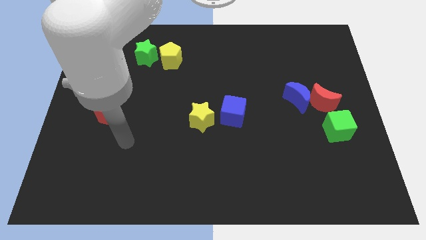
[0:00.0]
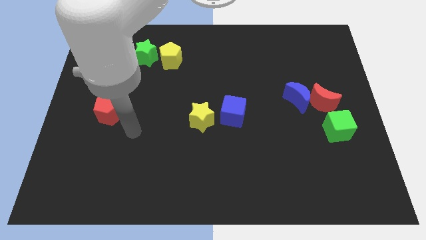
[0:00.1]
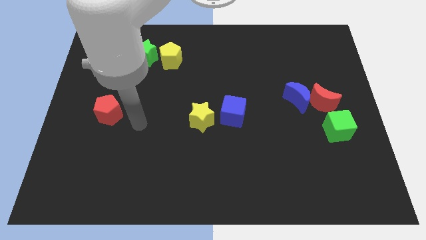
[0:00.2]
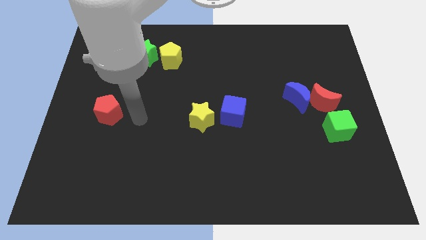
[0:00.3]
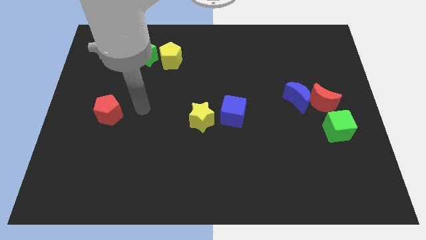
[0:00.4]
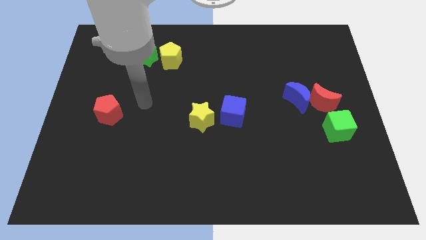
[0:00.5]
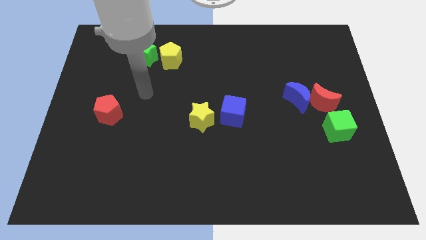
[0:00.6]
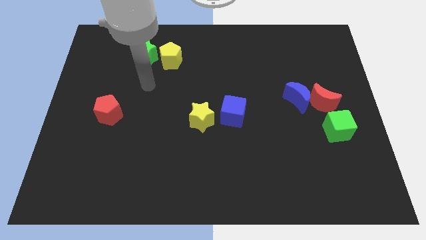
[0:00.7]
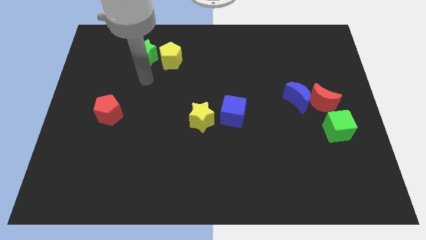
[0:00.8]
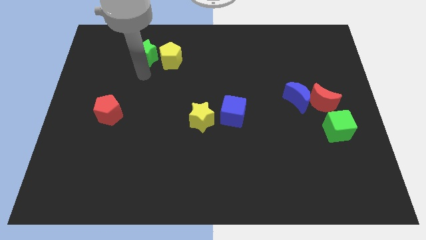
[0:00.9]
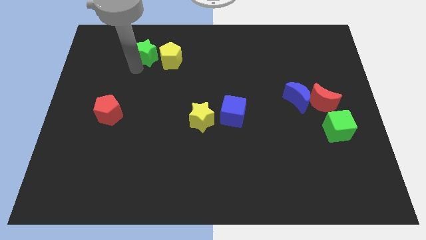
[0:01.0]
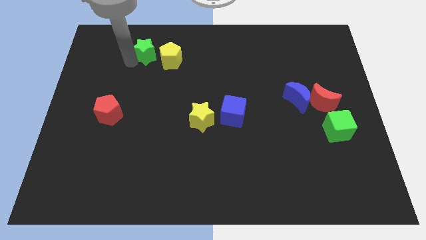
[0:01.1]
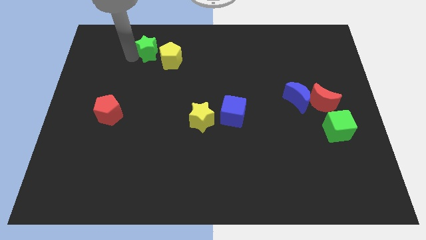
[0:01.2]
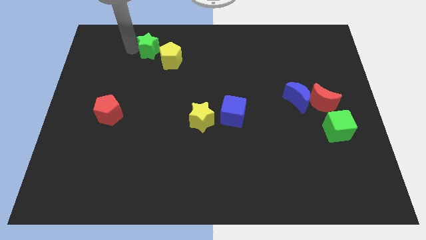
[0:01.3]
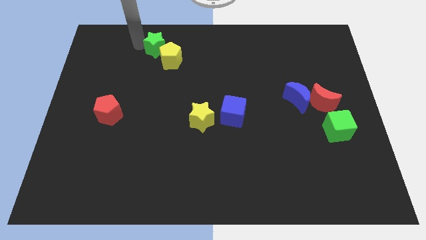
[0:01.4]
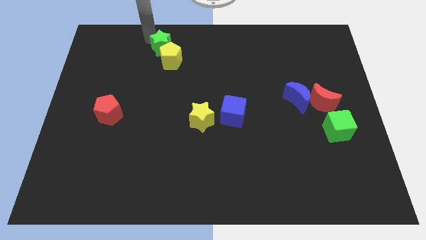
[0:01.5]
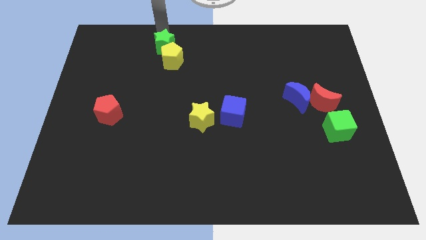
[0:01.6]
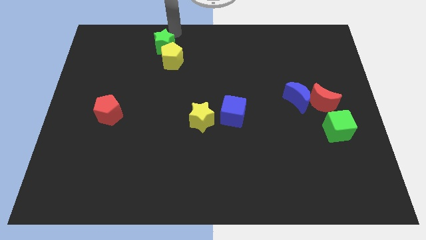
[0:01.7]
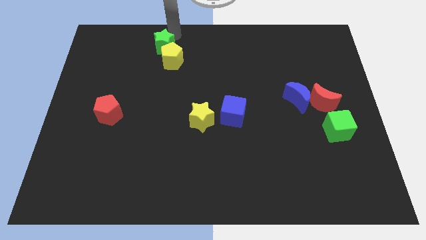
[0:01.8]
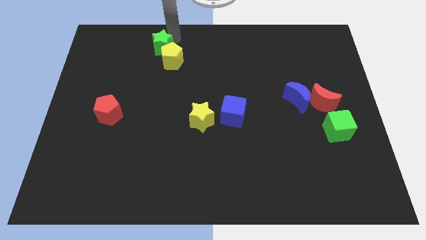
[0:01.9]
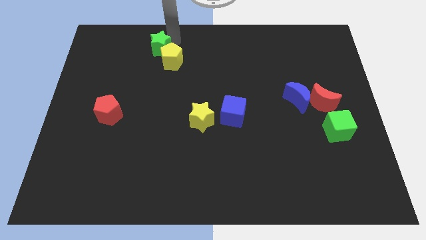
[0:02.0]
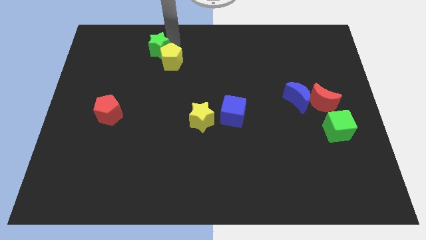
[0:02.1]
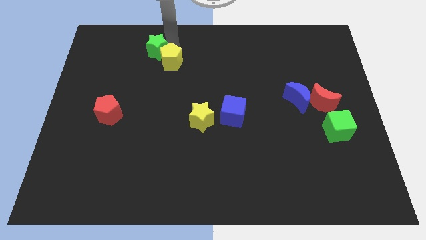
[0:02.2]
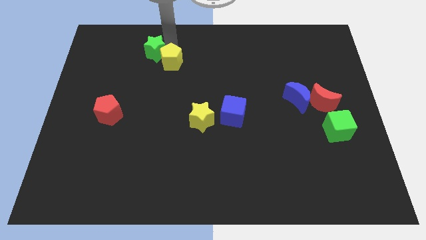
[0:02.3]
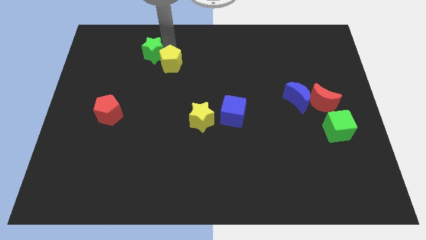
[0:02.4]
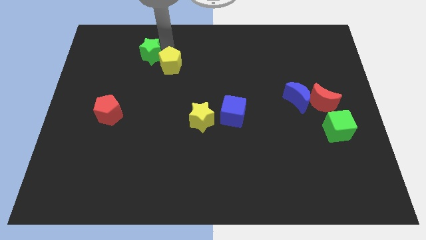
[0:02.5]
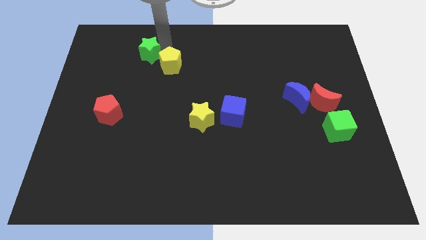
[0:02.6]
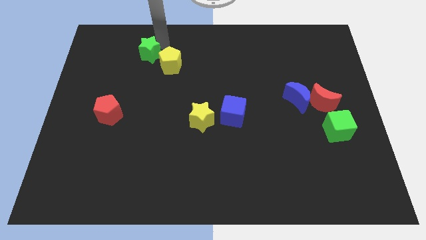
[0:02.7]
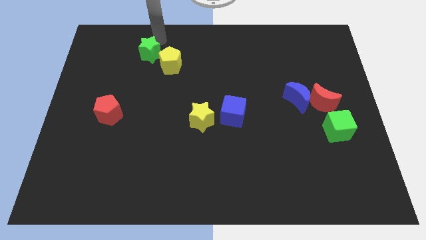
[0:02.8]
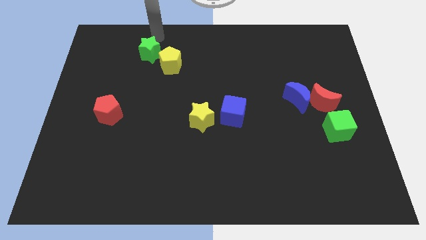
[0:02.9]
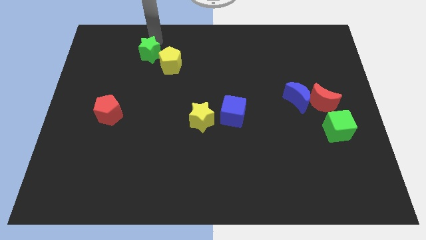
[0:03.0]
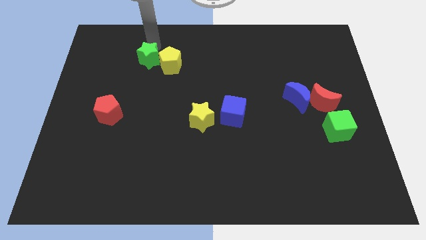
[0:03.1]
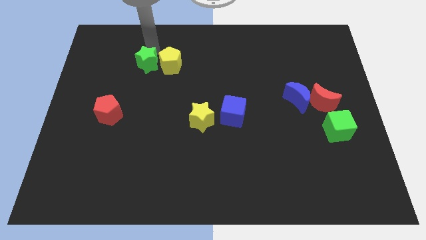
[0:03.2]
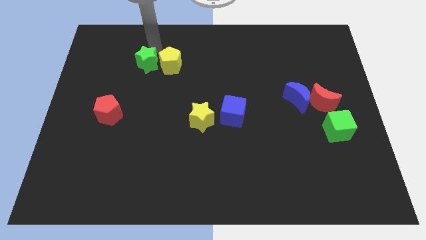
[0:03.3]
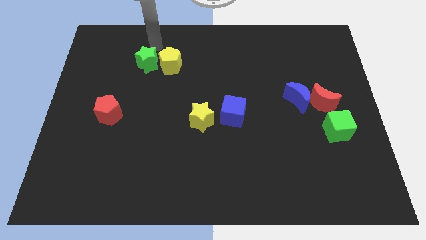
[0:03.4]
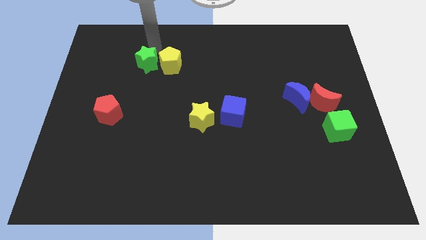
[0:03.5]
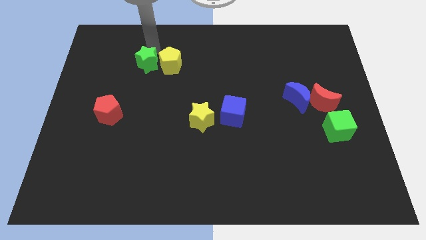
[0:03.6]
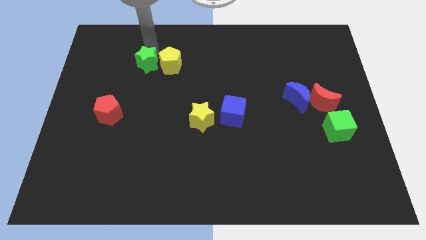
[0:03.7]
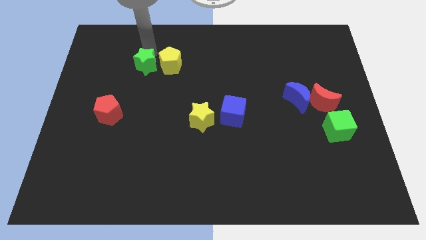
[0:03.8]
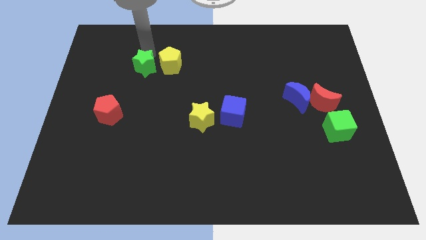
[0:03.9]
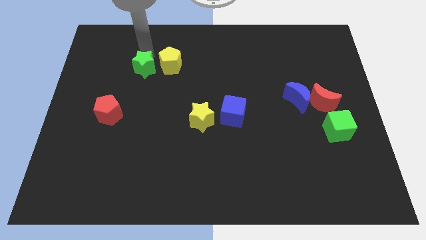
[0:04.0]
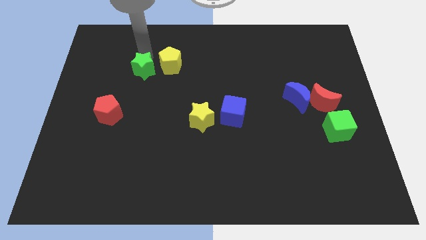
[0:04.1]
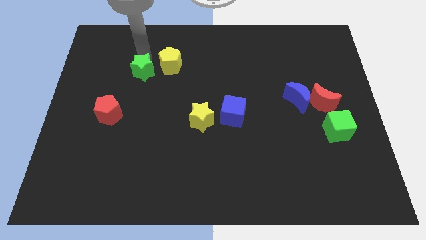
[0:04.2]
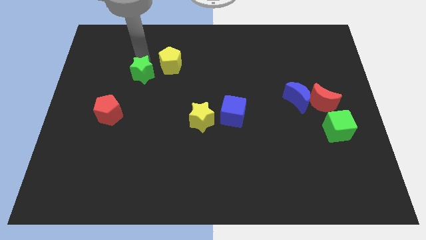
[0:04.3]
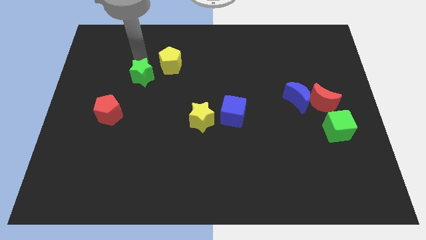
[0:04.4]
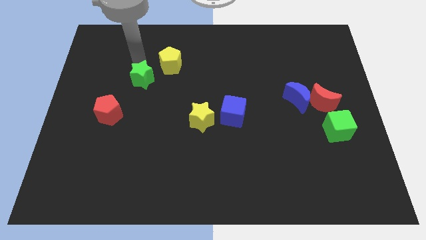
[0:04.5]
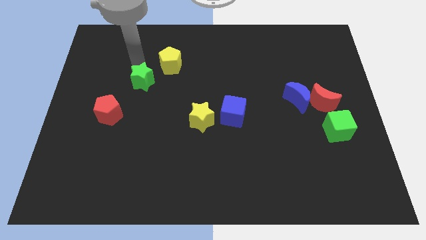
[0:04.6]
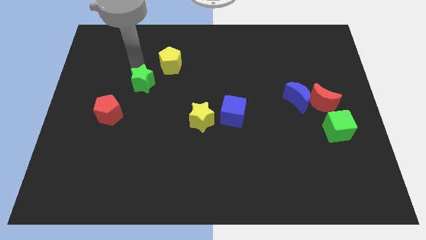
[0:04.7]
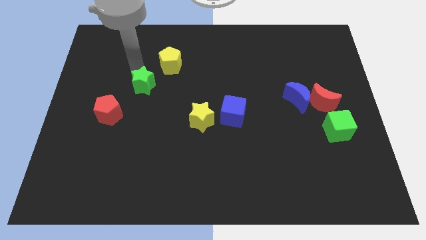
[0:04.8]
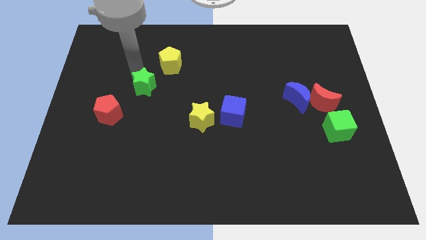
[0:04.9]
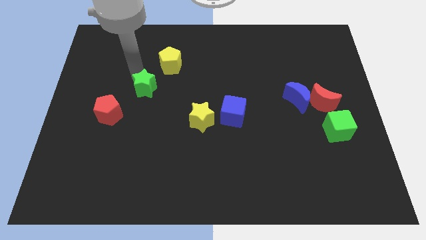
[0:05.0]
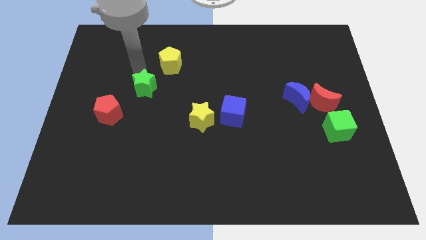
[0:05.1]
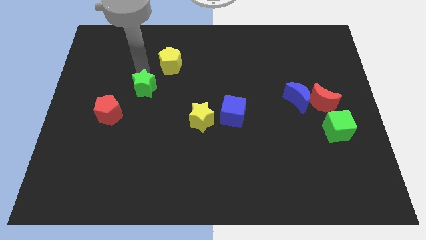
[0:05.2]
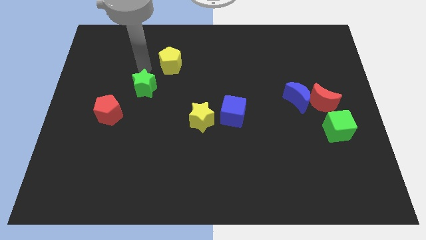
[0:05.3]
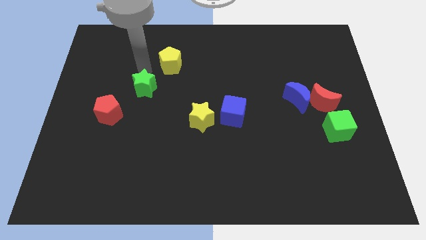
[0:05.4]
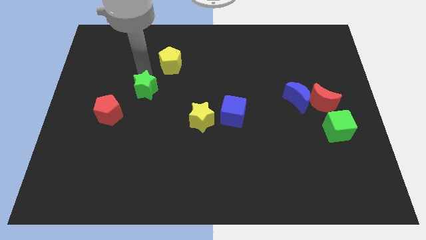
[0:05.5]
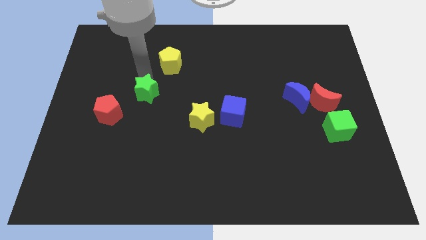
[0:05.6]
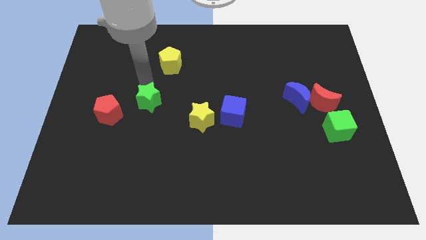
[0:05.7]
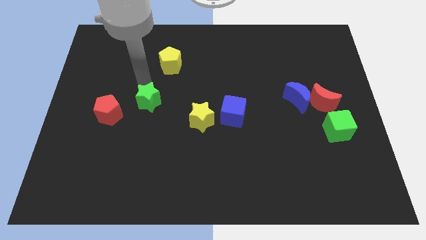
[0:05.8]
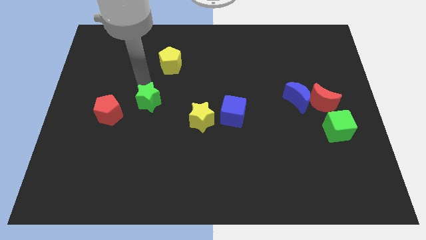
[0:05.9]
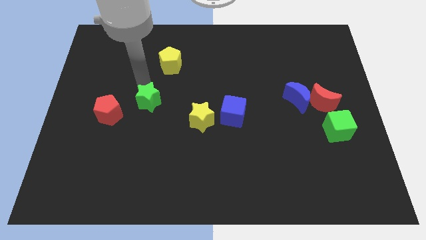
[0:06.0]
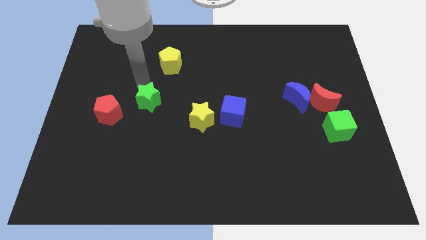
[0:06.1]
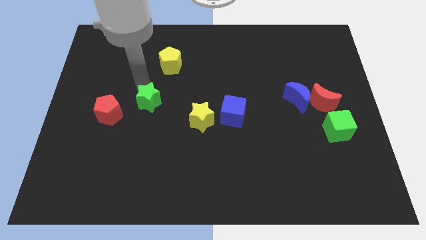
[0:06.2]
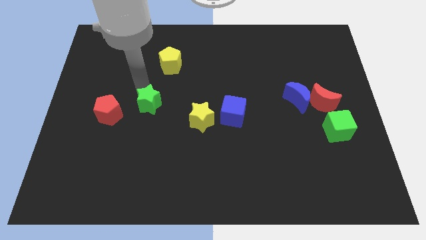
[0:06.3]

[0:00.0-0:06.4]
slide the green star left of the yellow star
